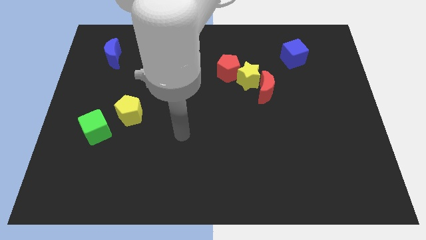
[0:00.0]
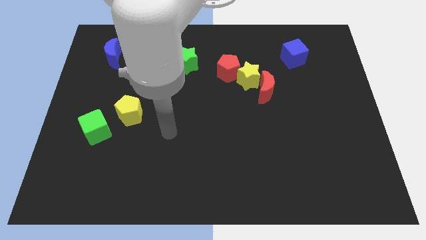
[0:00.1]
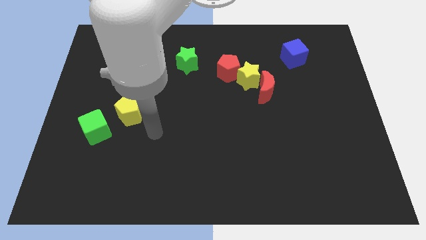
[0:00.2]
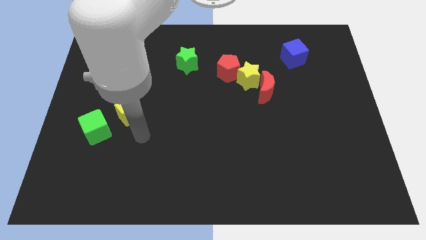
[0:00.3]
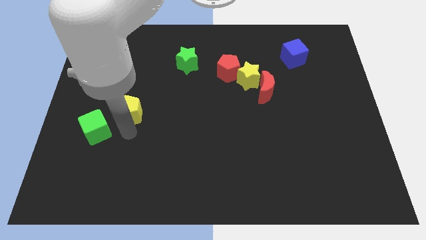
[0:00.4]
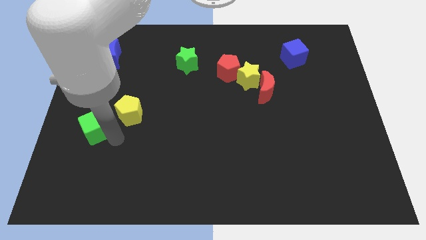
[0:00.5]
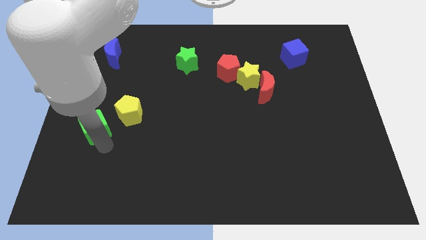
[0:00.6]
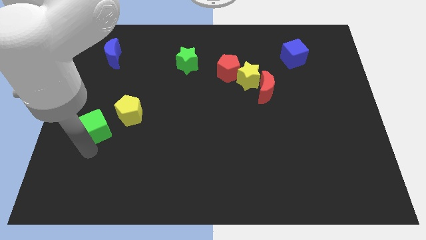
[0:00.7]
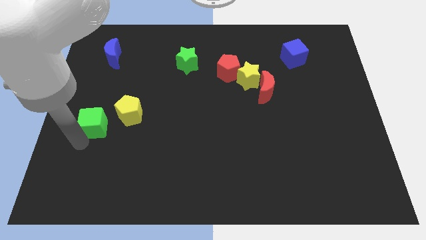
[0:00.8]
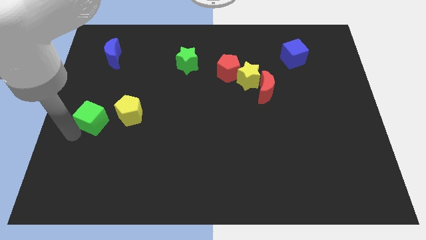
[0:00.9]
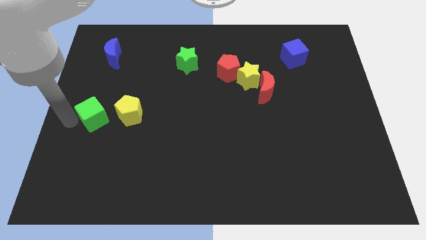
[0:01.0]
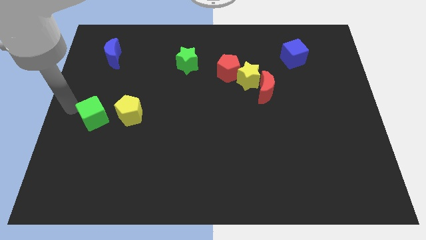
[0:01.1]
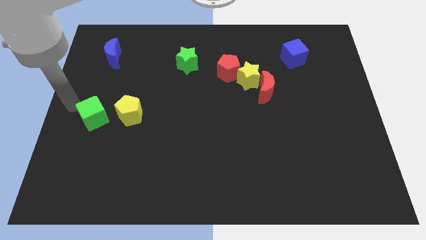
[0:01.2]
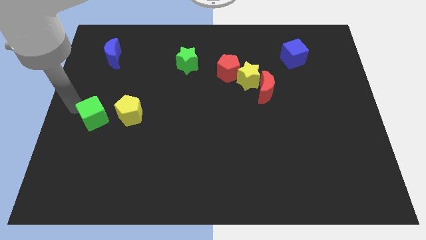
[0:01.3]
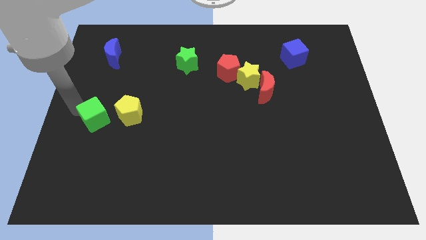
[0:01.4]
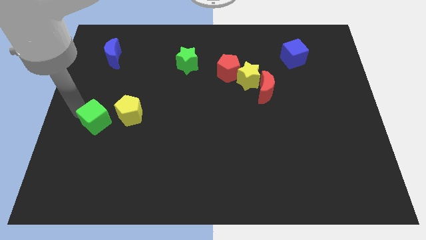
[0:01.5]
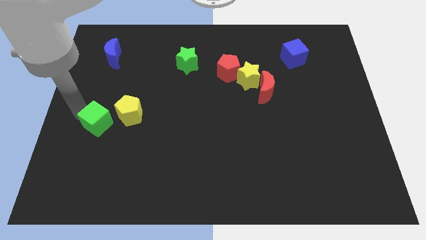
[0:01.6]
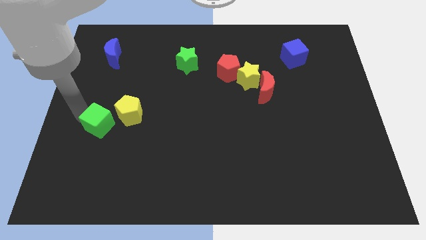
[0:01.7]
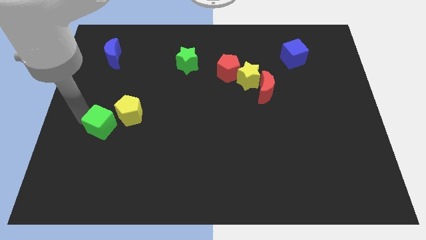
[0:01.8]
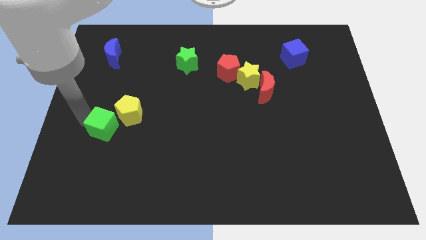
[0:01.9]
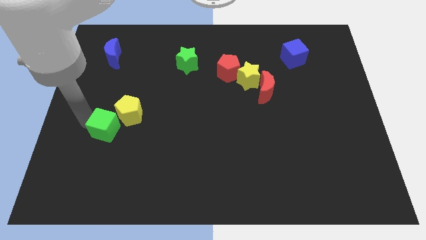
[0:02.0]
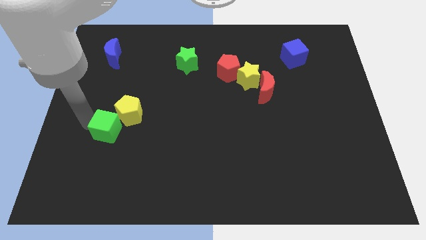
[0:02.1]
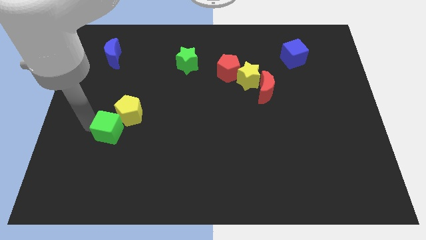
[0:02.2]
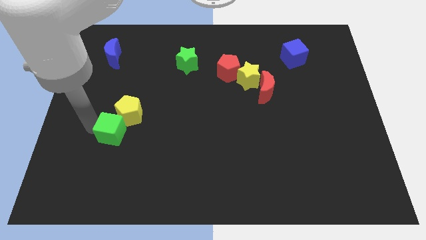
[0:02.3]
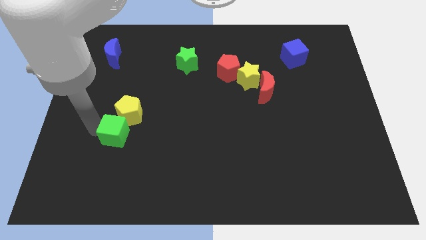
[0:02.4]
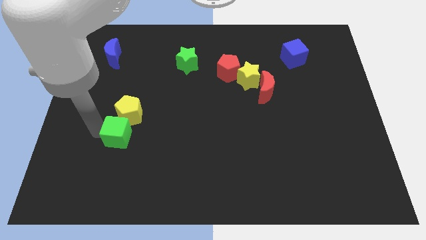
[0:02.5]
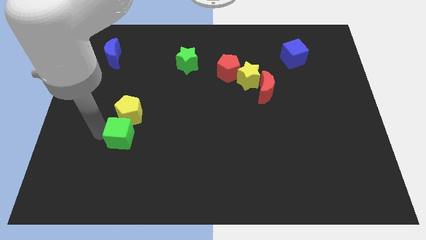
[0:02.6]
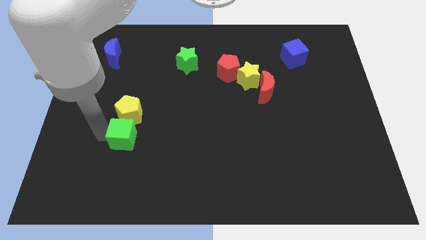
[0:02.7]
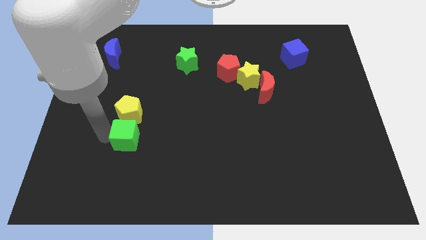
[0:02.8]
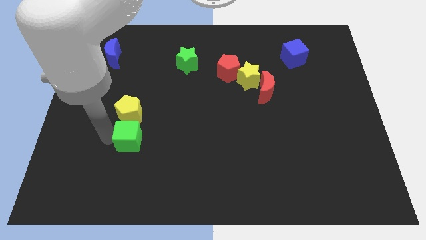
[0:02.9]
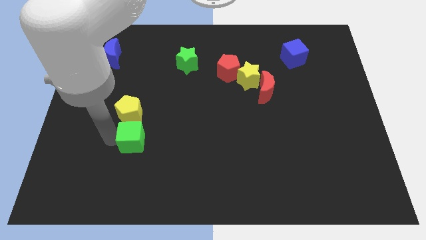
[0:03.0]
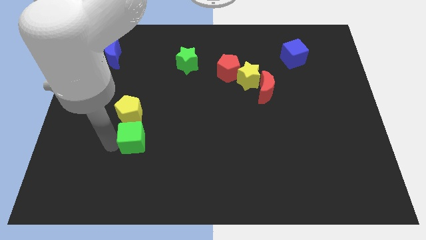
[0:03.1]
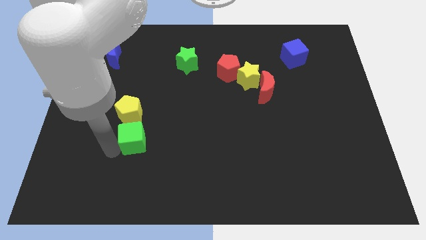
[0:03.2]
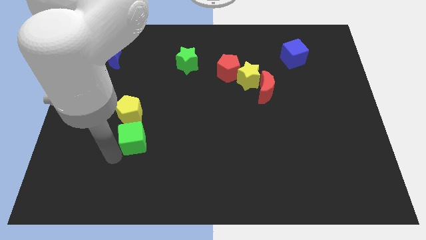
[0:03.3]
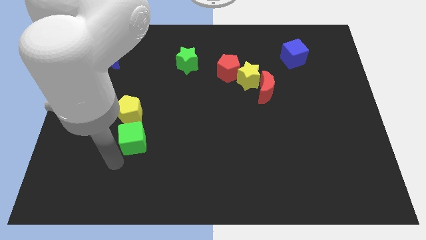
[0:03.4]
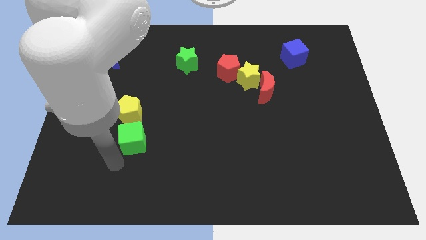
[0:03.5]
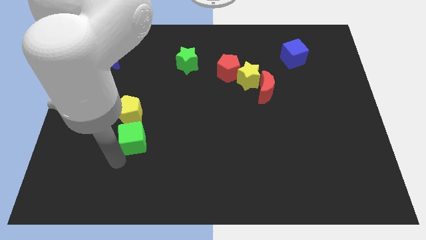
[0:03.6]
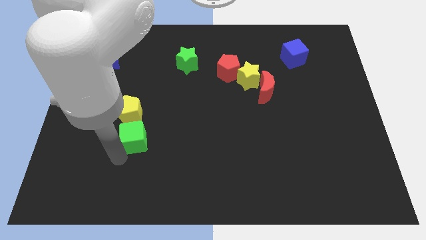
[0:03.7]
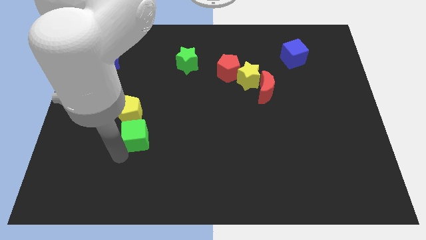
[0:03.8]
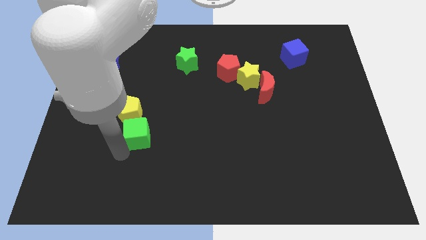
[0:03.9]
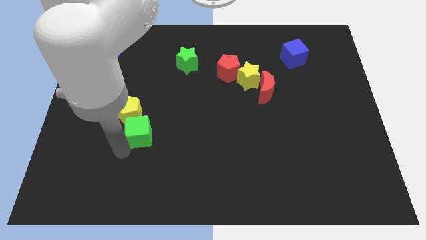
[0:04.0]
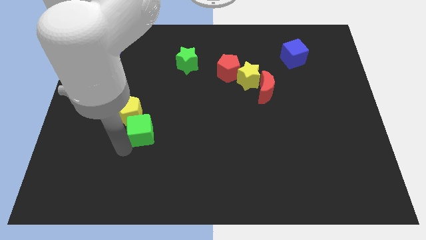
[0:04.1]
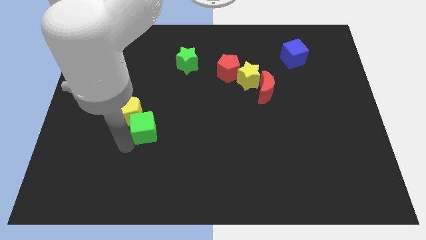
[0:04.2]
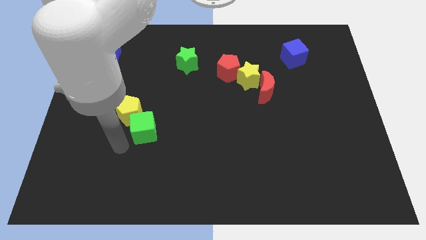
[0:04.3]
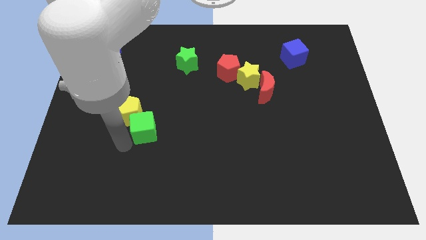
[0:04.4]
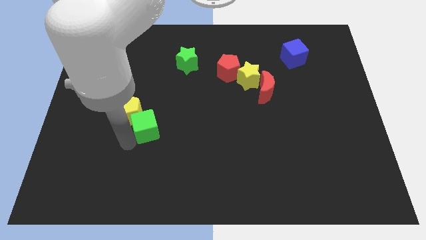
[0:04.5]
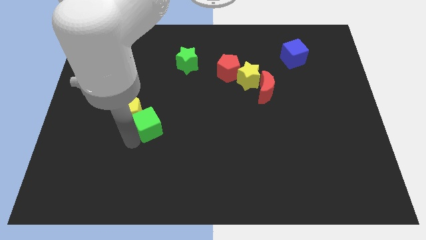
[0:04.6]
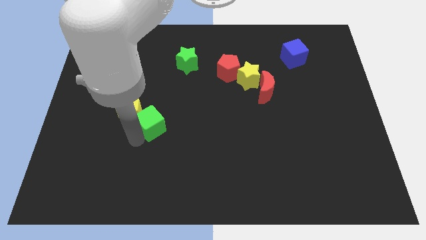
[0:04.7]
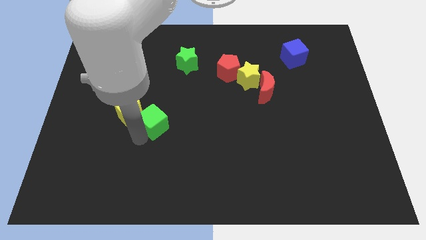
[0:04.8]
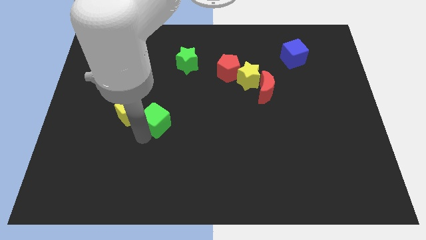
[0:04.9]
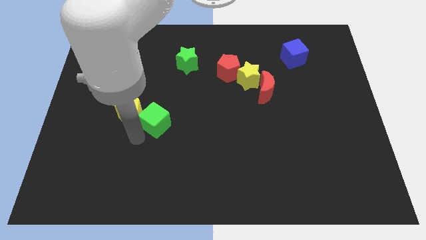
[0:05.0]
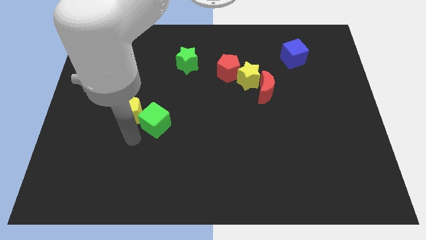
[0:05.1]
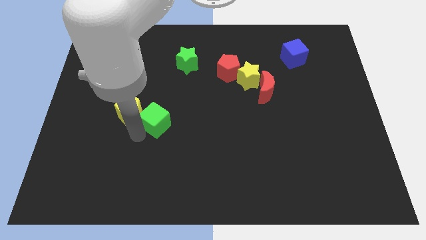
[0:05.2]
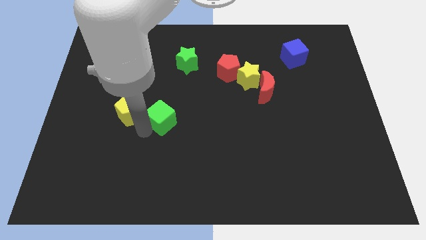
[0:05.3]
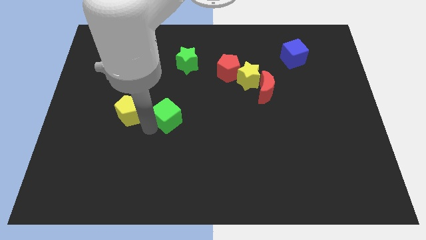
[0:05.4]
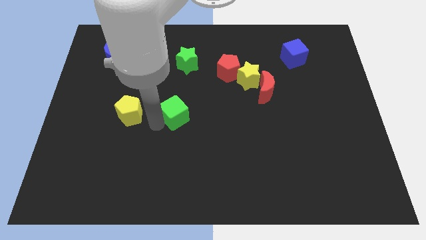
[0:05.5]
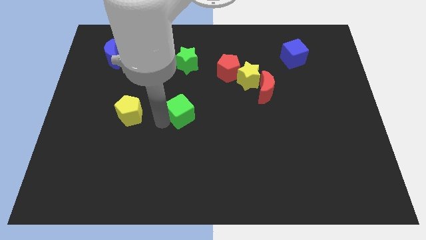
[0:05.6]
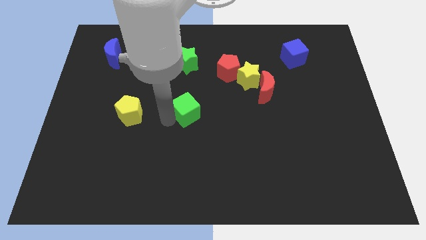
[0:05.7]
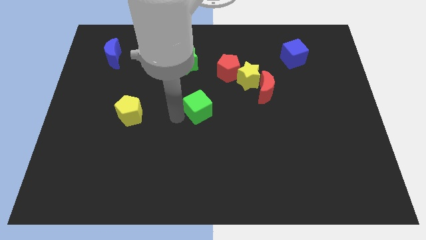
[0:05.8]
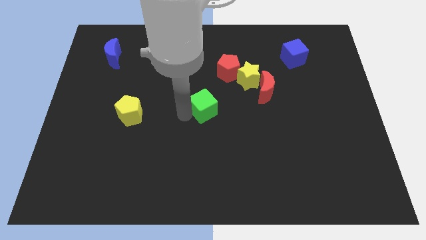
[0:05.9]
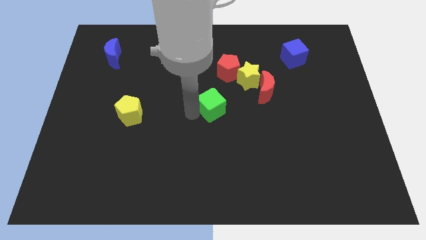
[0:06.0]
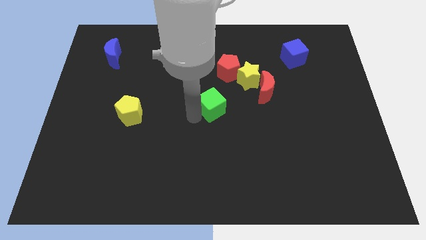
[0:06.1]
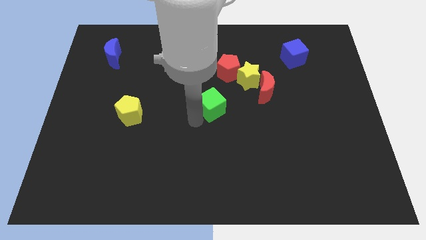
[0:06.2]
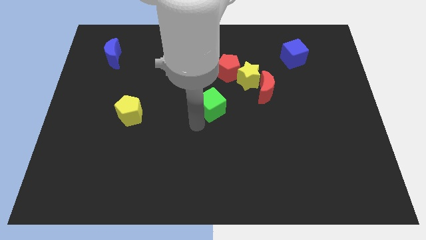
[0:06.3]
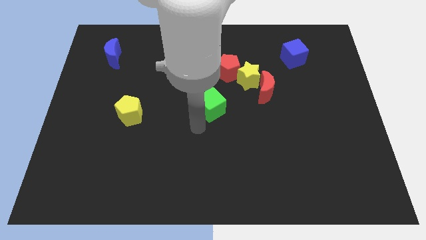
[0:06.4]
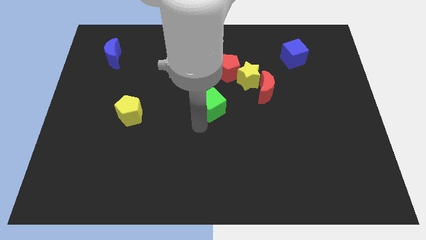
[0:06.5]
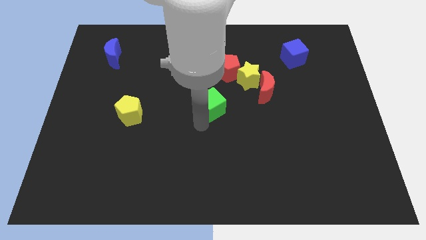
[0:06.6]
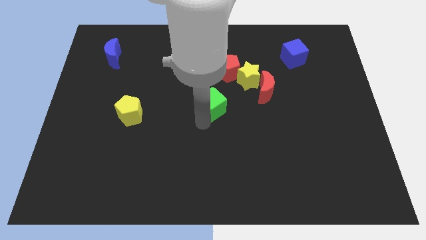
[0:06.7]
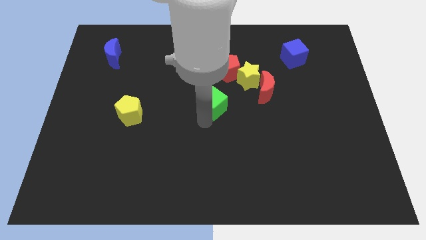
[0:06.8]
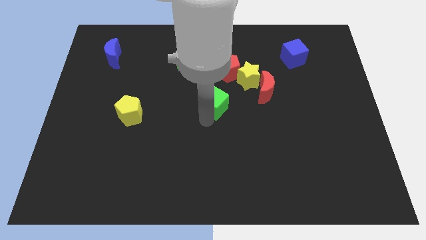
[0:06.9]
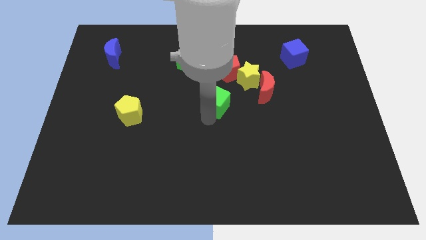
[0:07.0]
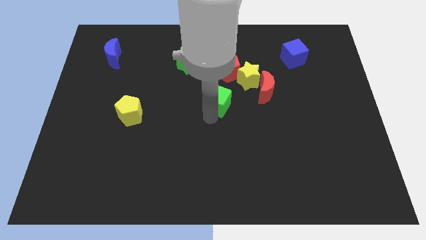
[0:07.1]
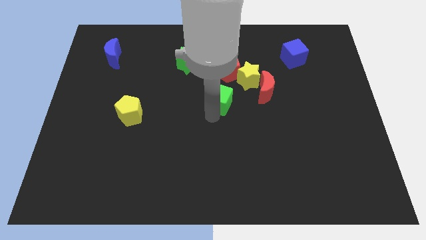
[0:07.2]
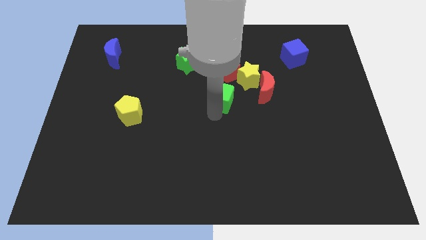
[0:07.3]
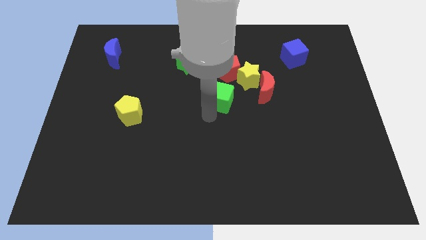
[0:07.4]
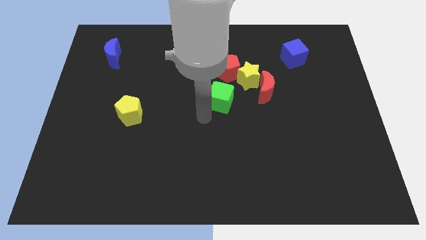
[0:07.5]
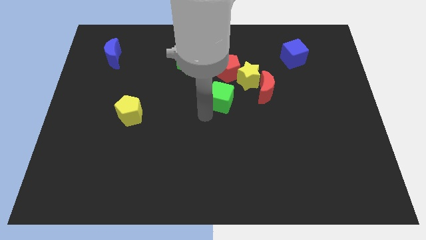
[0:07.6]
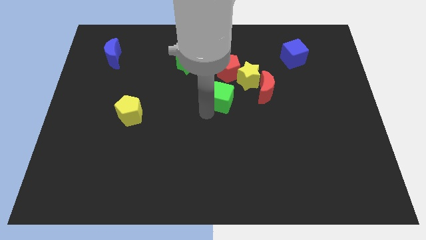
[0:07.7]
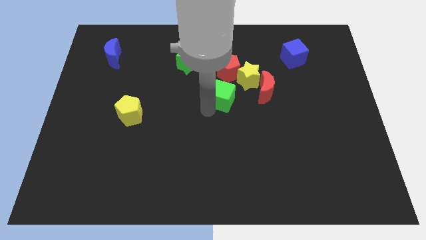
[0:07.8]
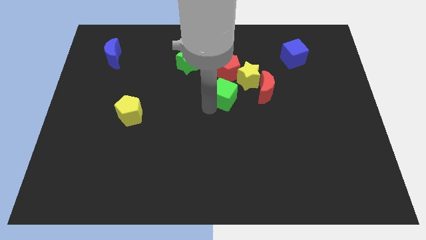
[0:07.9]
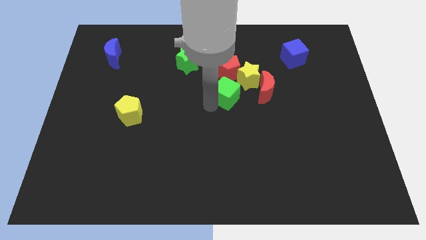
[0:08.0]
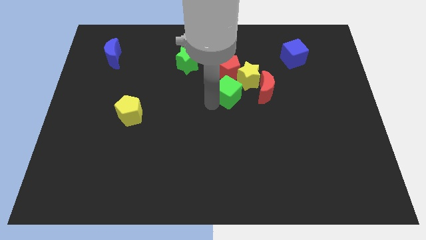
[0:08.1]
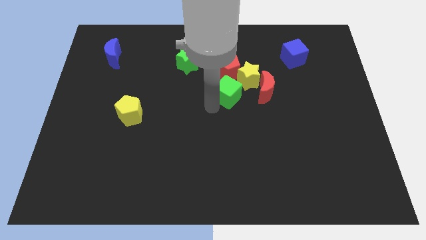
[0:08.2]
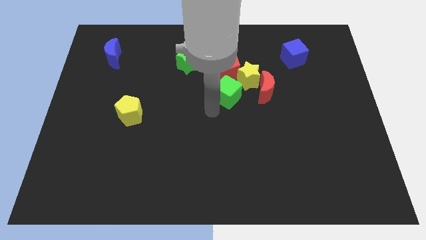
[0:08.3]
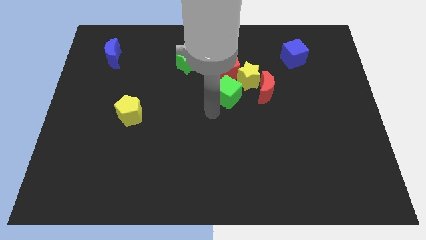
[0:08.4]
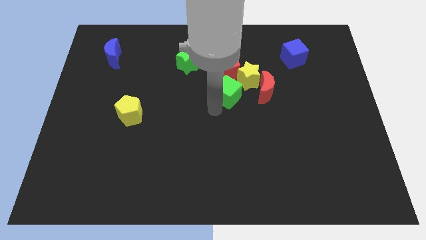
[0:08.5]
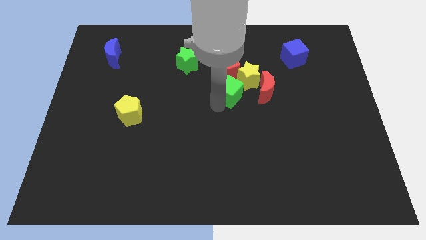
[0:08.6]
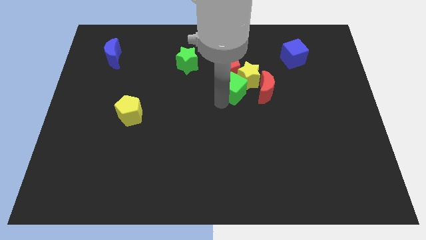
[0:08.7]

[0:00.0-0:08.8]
push the green cube to the yellow star
